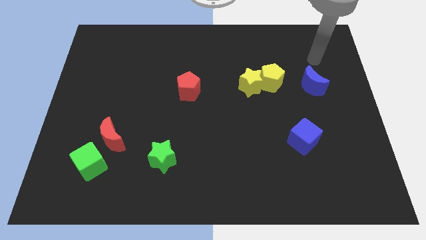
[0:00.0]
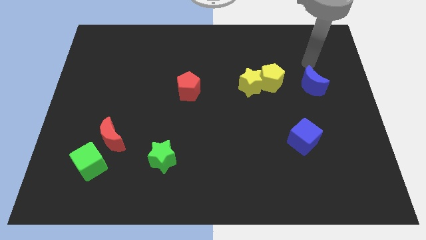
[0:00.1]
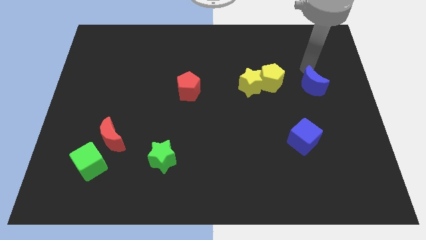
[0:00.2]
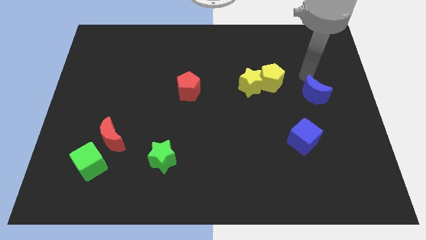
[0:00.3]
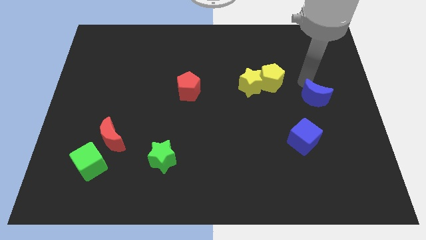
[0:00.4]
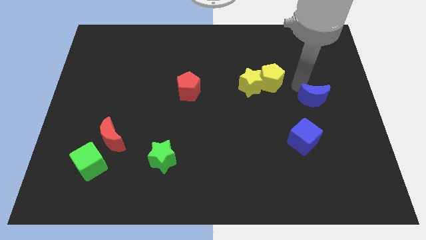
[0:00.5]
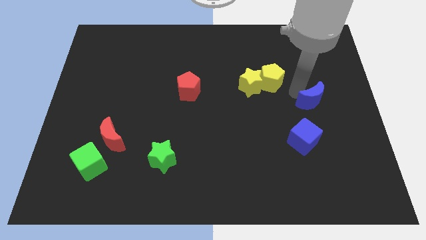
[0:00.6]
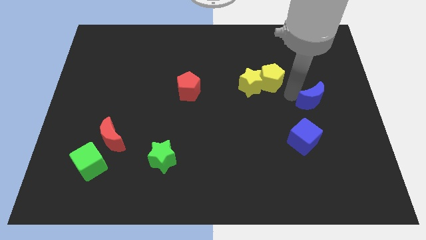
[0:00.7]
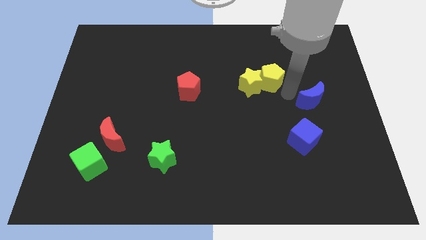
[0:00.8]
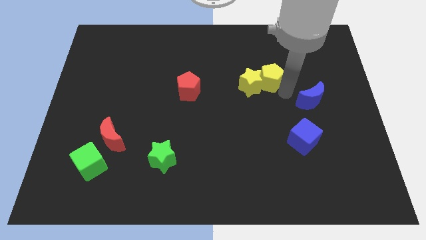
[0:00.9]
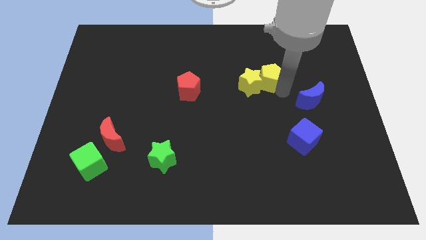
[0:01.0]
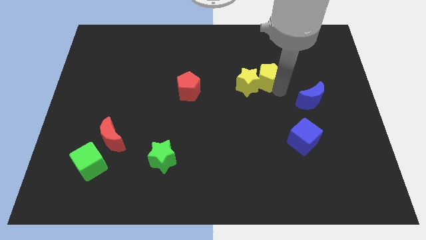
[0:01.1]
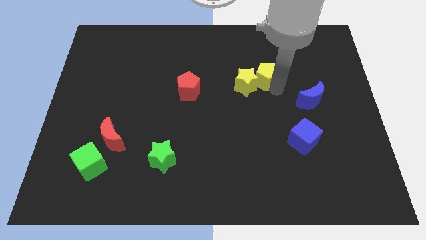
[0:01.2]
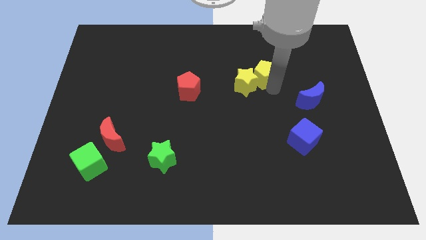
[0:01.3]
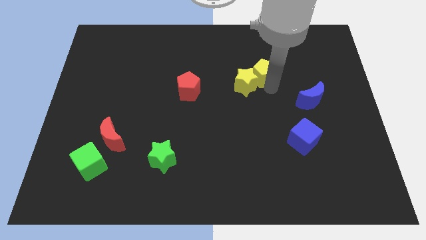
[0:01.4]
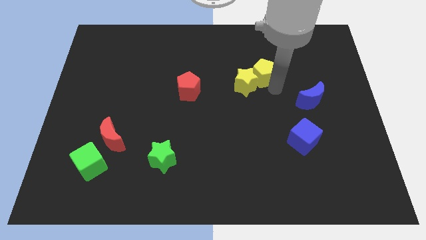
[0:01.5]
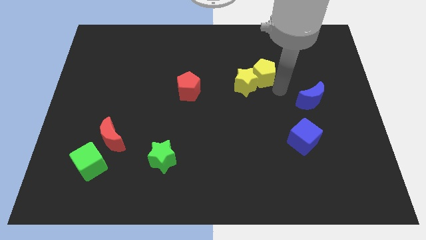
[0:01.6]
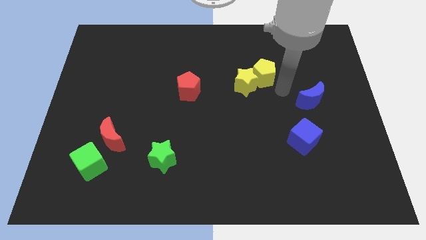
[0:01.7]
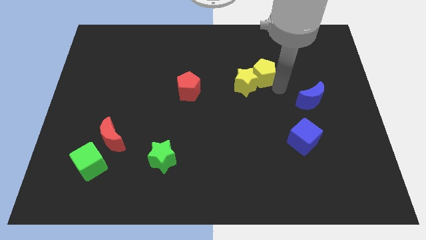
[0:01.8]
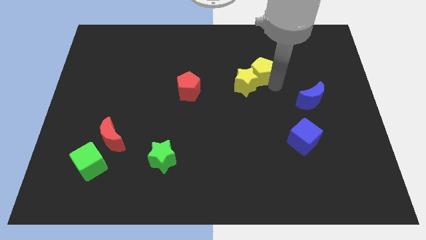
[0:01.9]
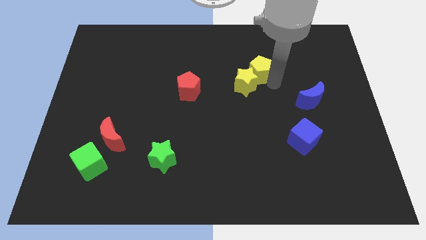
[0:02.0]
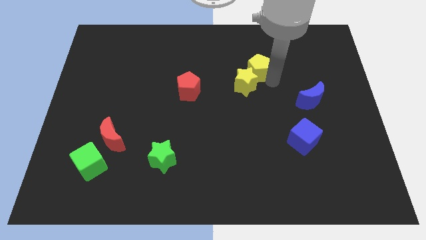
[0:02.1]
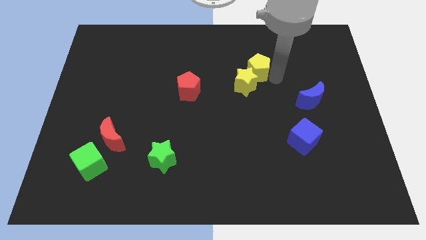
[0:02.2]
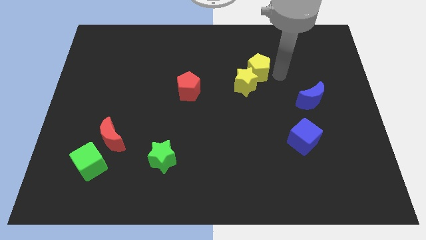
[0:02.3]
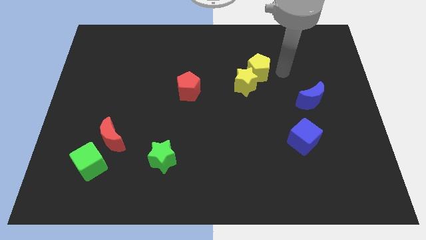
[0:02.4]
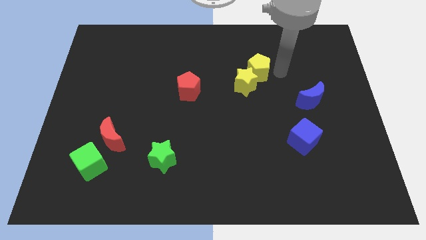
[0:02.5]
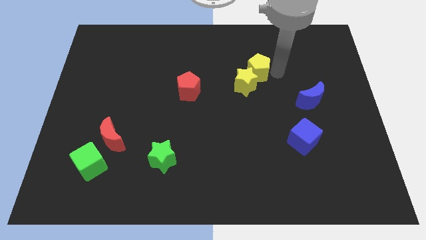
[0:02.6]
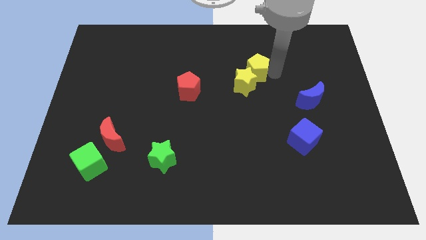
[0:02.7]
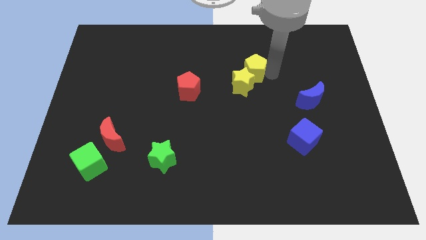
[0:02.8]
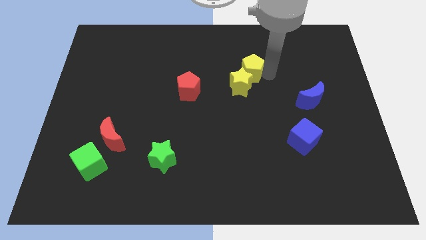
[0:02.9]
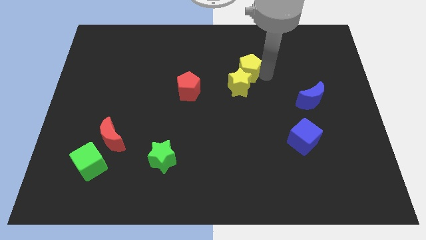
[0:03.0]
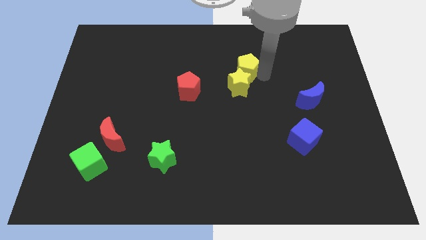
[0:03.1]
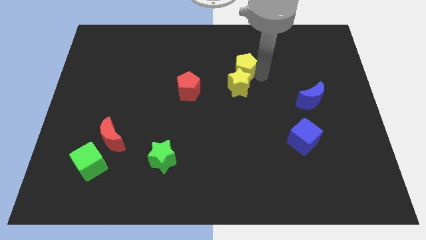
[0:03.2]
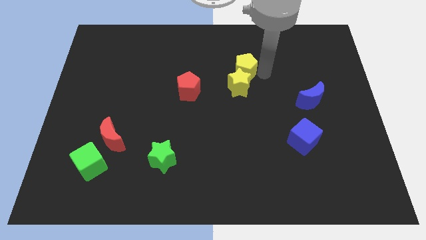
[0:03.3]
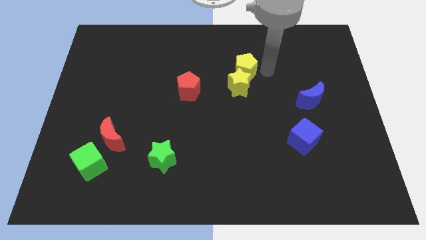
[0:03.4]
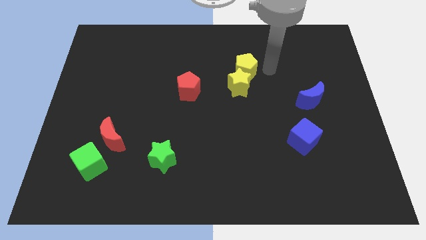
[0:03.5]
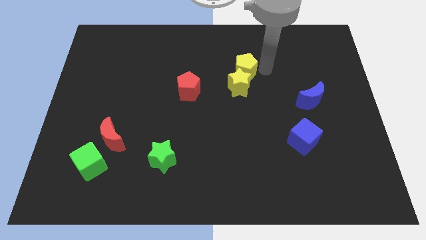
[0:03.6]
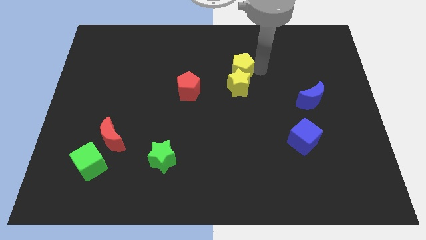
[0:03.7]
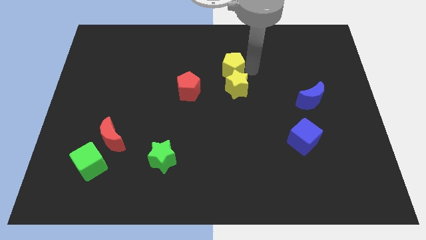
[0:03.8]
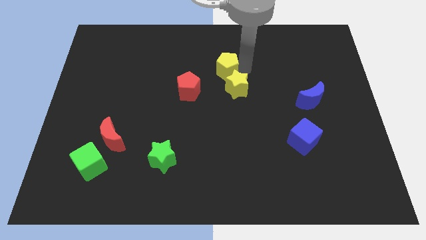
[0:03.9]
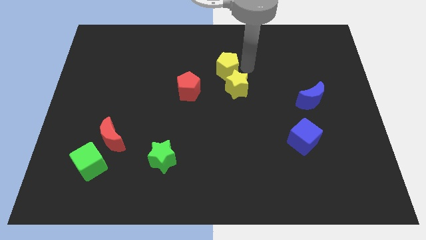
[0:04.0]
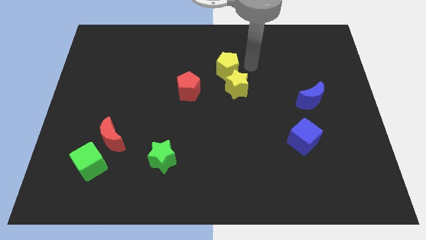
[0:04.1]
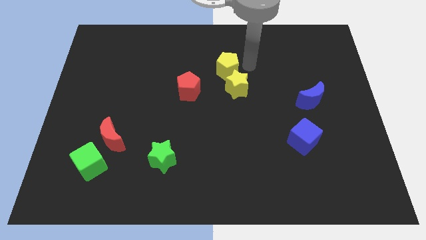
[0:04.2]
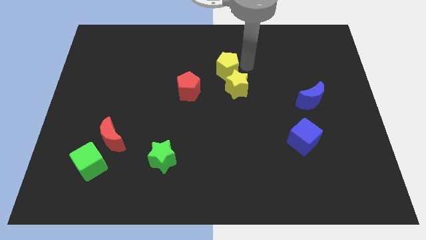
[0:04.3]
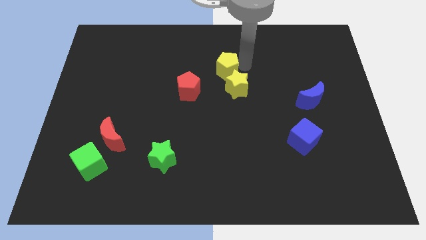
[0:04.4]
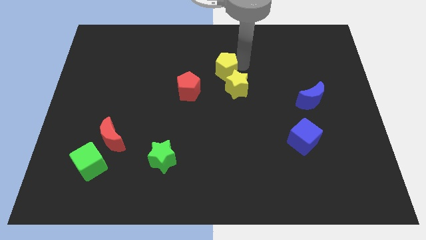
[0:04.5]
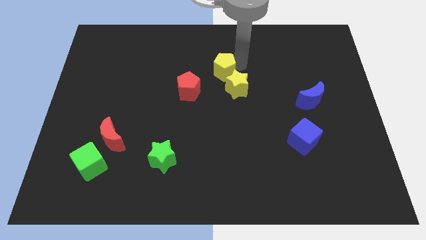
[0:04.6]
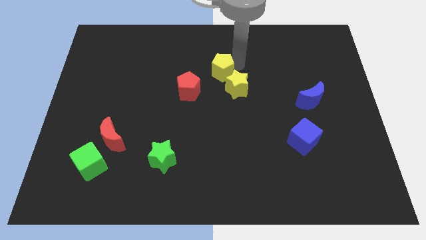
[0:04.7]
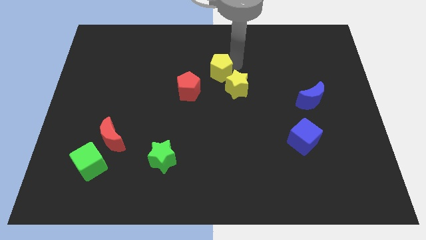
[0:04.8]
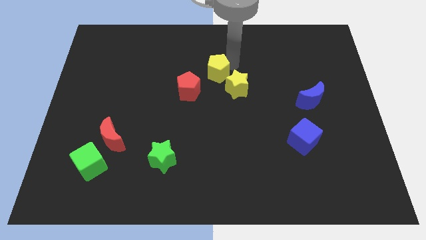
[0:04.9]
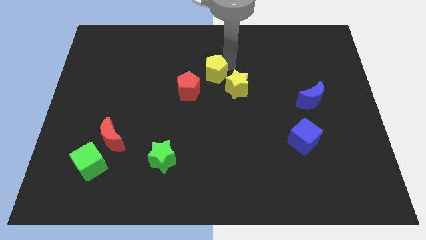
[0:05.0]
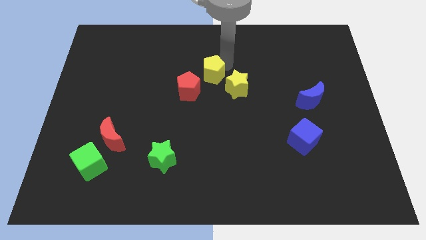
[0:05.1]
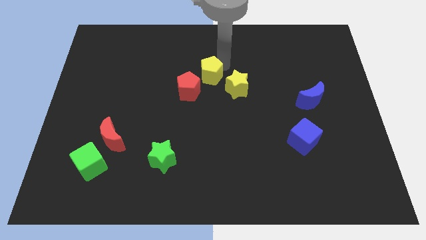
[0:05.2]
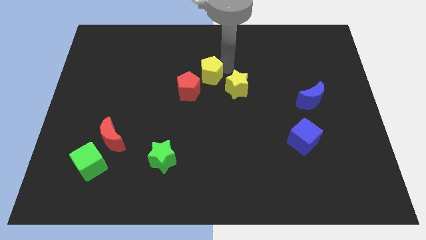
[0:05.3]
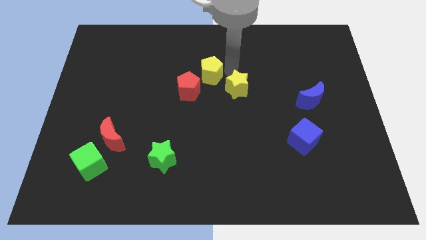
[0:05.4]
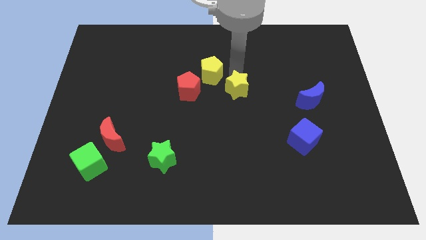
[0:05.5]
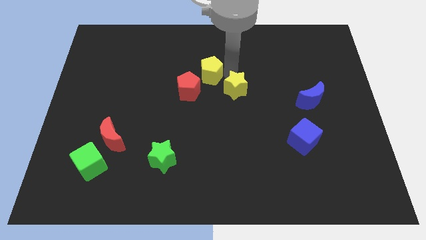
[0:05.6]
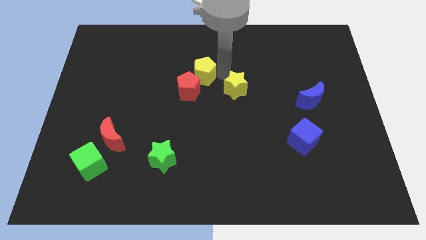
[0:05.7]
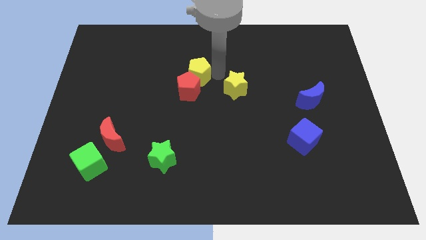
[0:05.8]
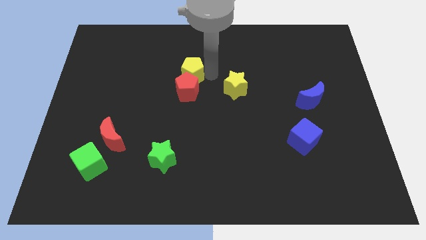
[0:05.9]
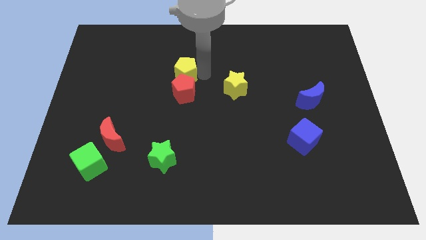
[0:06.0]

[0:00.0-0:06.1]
slide the yellow pentagon to the left

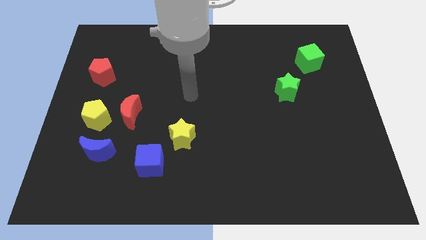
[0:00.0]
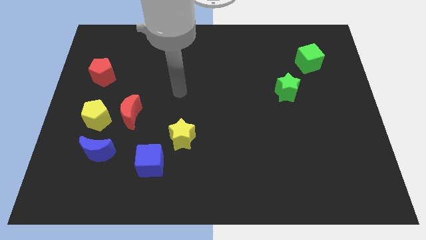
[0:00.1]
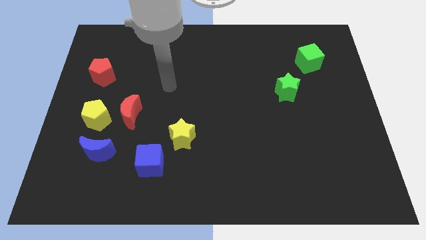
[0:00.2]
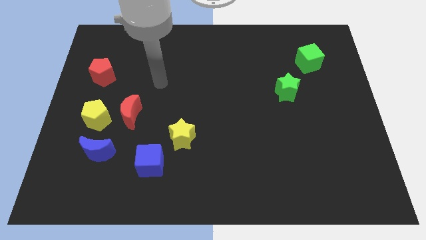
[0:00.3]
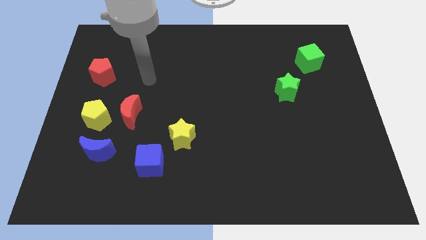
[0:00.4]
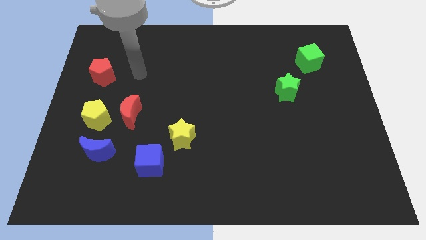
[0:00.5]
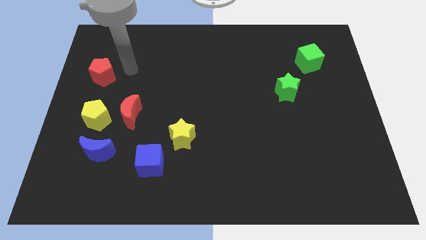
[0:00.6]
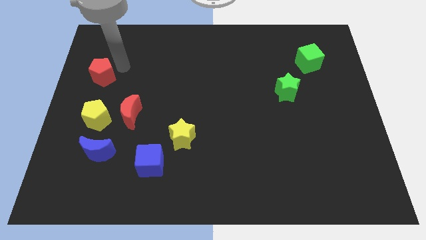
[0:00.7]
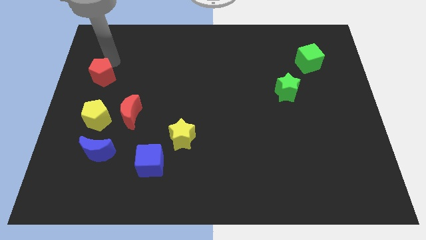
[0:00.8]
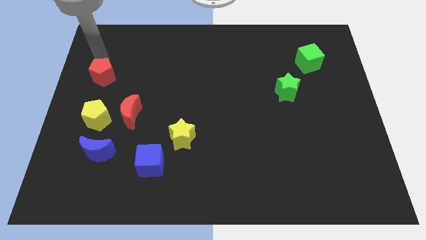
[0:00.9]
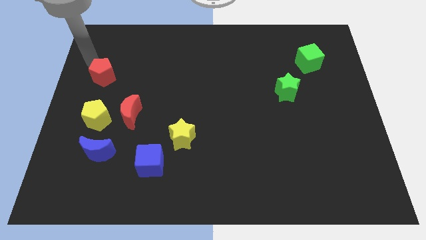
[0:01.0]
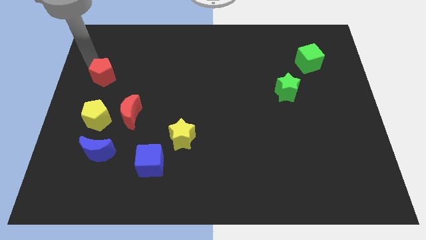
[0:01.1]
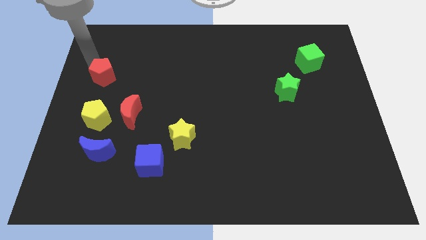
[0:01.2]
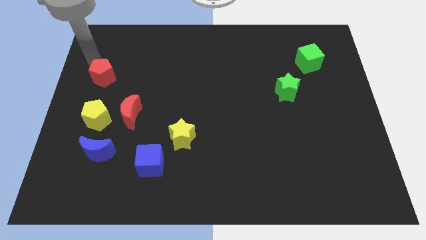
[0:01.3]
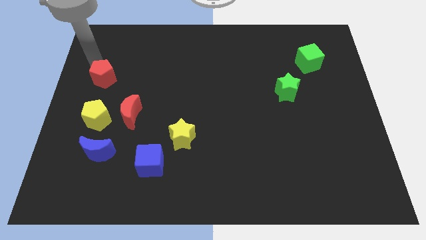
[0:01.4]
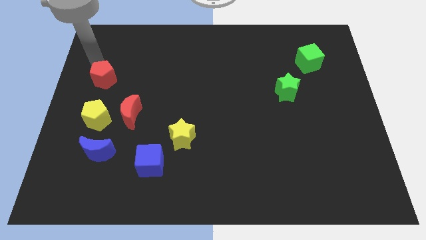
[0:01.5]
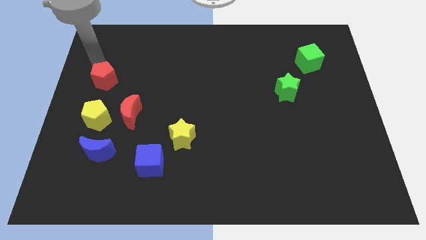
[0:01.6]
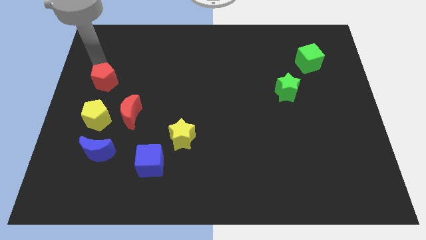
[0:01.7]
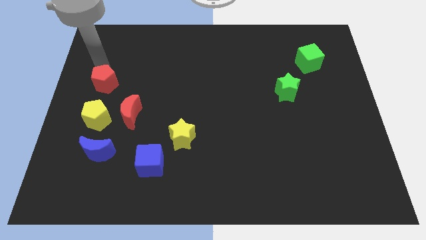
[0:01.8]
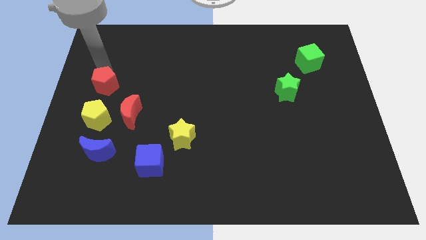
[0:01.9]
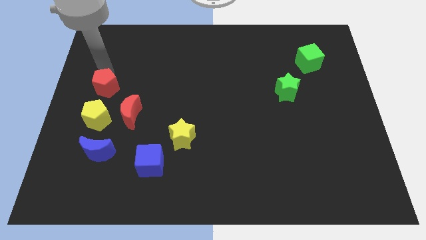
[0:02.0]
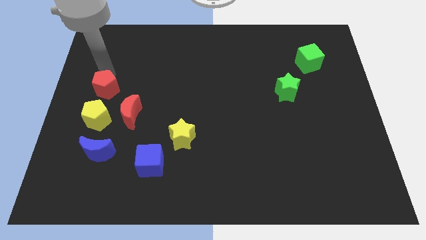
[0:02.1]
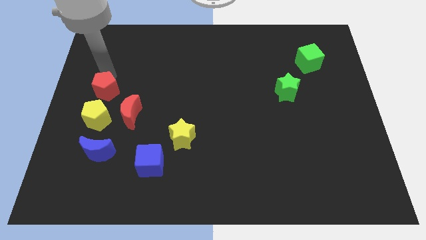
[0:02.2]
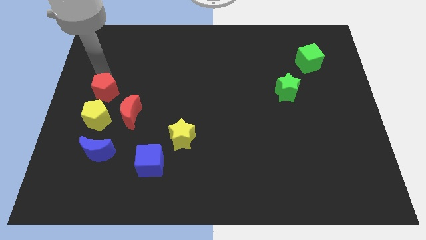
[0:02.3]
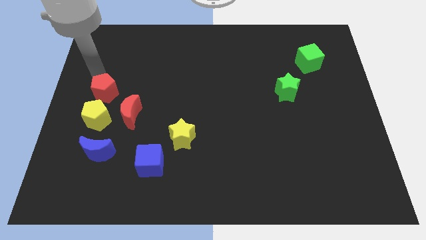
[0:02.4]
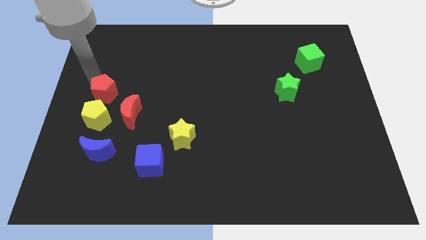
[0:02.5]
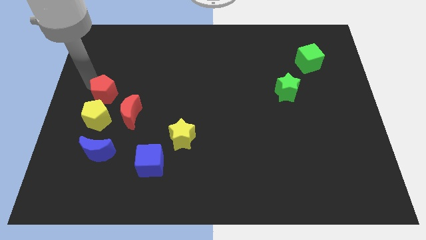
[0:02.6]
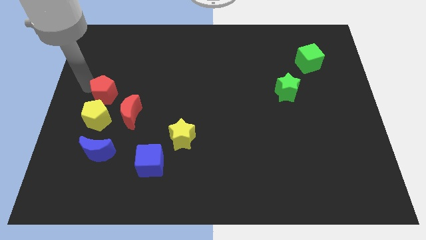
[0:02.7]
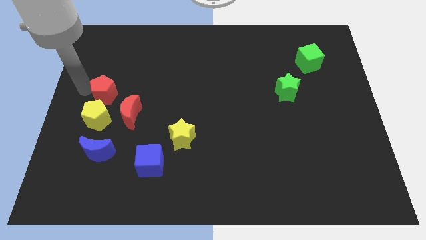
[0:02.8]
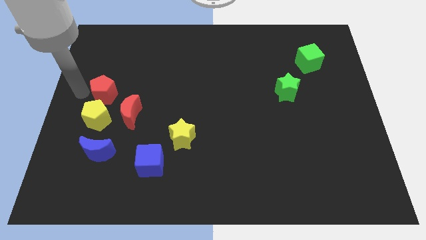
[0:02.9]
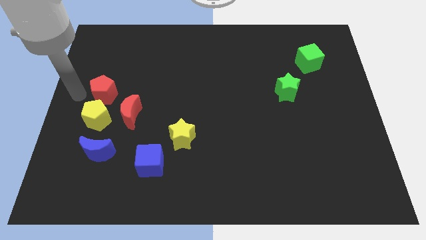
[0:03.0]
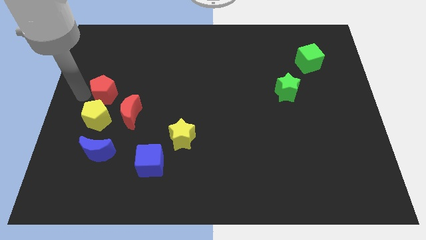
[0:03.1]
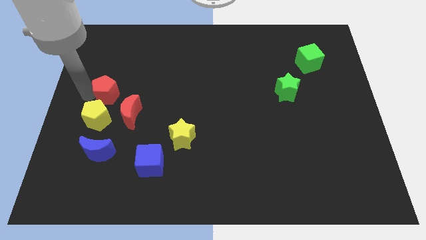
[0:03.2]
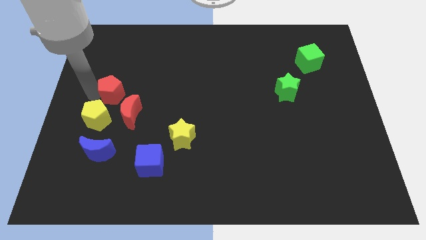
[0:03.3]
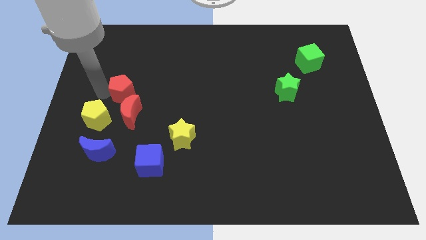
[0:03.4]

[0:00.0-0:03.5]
slightly push the red pentagon down and then to the right
